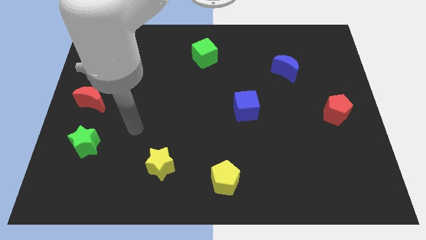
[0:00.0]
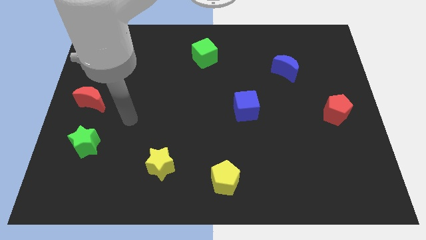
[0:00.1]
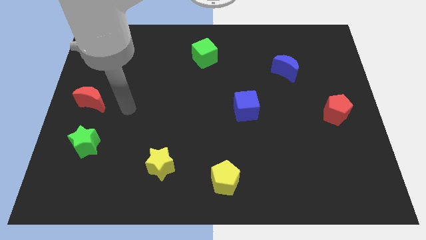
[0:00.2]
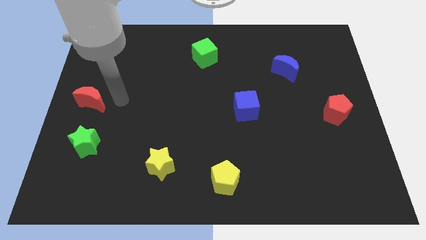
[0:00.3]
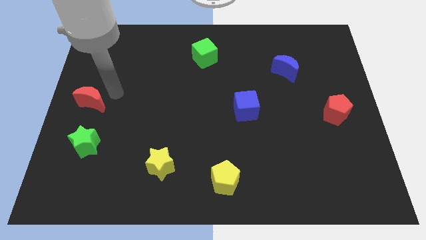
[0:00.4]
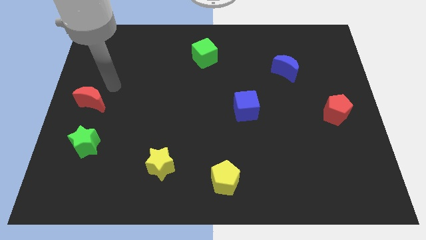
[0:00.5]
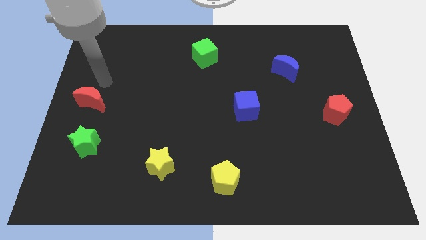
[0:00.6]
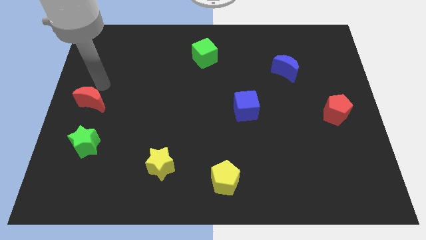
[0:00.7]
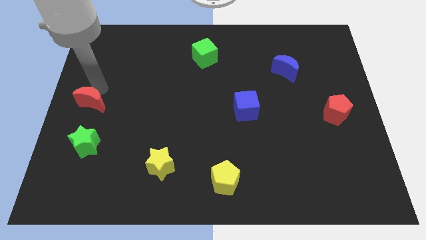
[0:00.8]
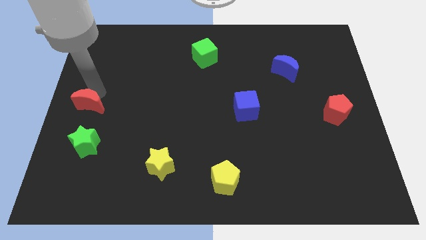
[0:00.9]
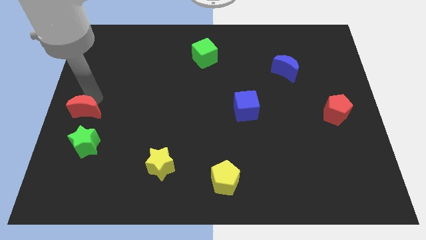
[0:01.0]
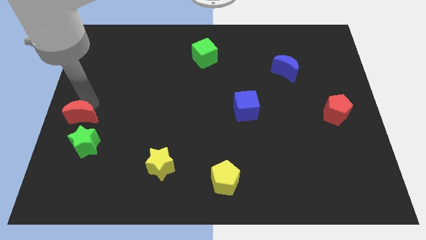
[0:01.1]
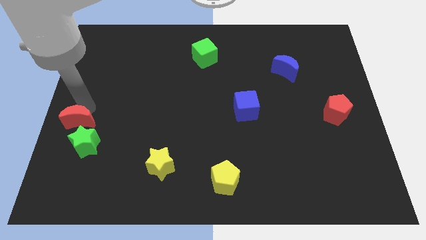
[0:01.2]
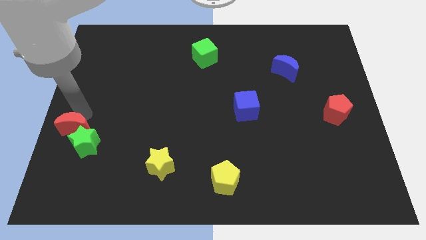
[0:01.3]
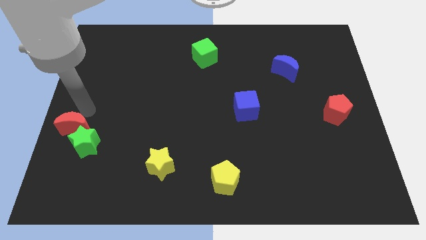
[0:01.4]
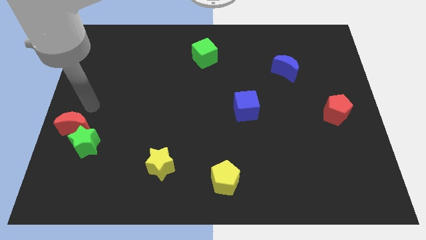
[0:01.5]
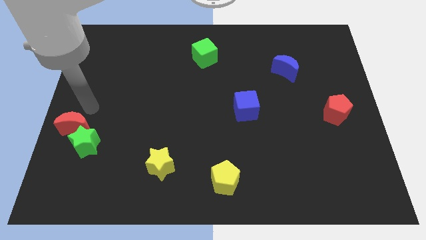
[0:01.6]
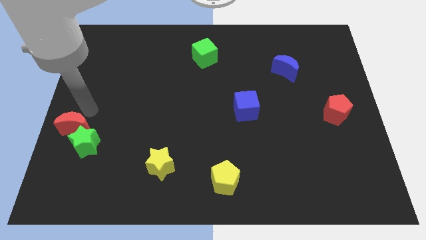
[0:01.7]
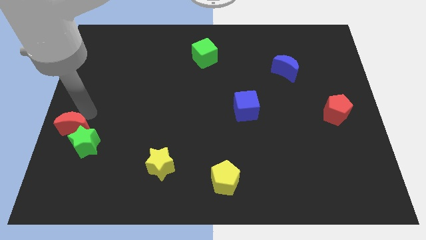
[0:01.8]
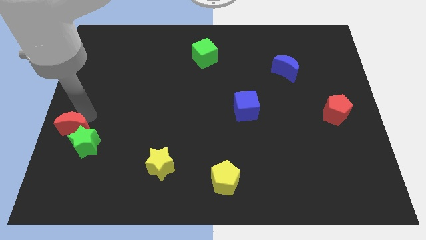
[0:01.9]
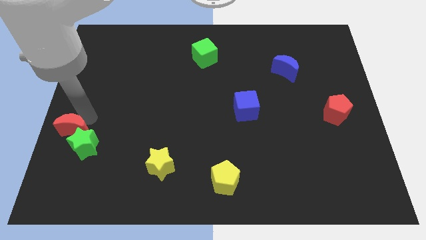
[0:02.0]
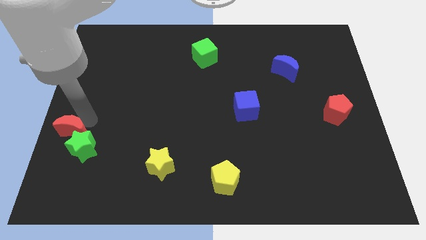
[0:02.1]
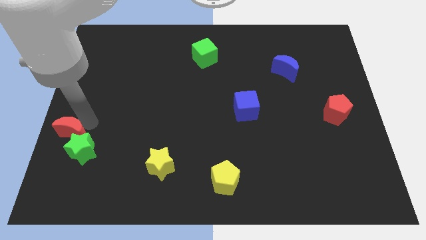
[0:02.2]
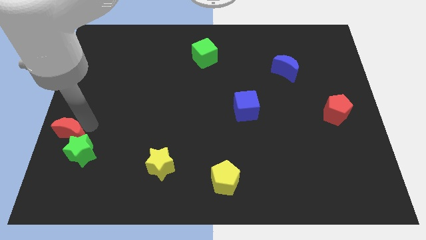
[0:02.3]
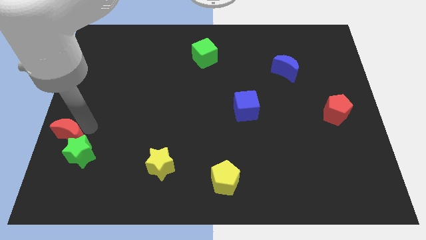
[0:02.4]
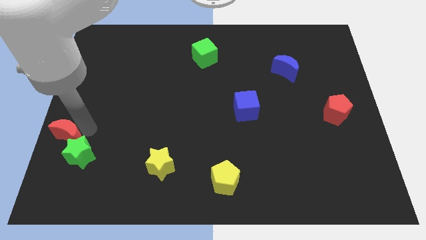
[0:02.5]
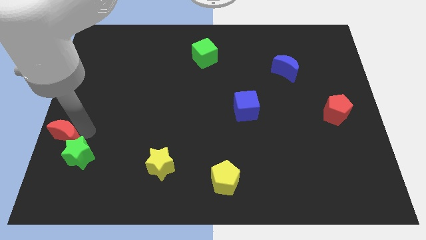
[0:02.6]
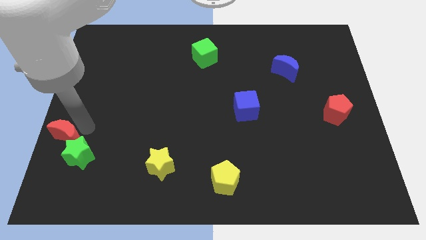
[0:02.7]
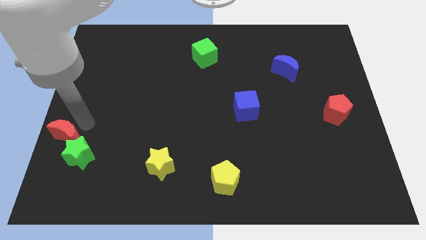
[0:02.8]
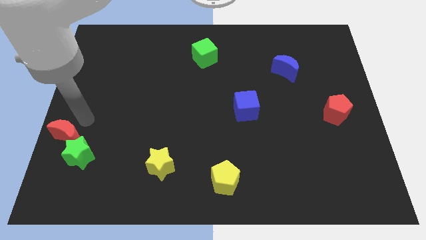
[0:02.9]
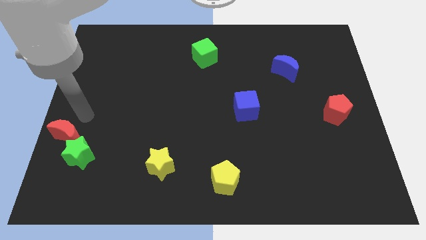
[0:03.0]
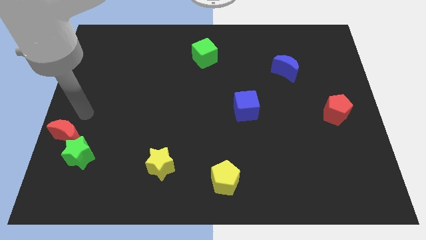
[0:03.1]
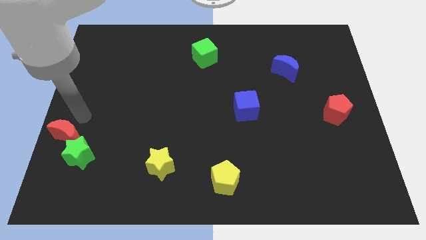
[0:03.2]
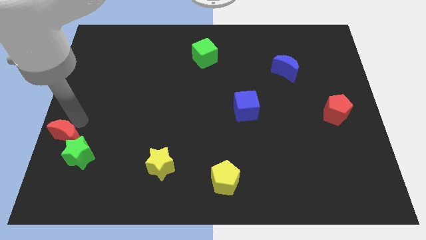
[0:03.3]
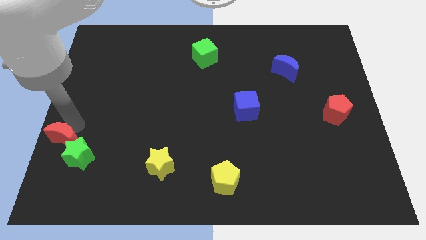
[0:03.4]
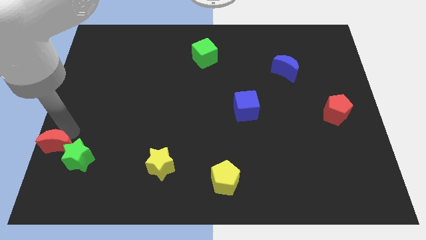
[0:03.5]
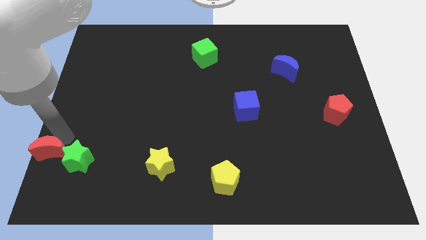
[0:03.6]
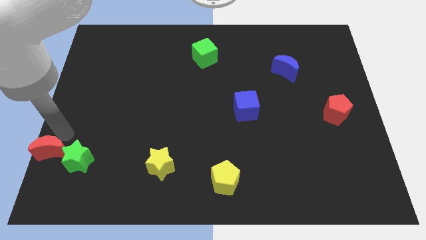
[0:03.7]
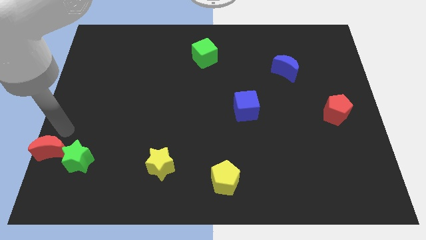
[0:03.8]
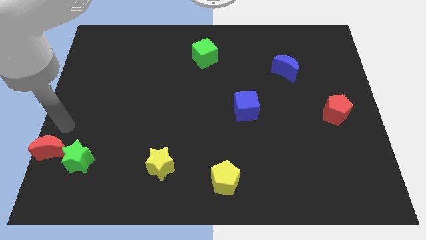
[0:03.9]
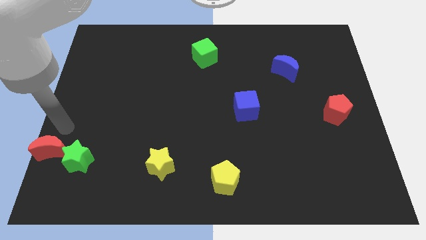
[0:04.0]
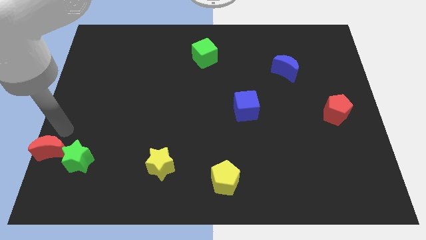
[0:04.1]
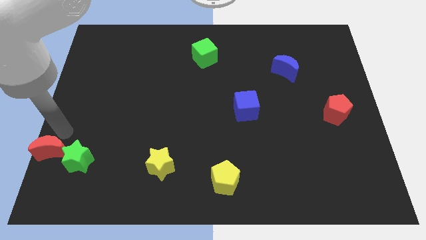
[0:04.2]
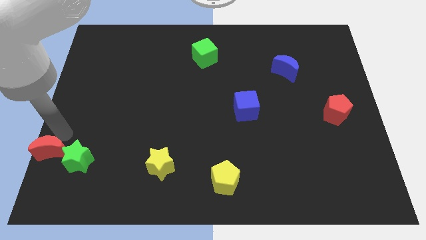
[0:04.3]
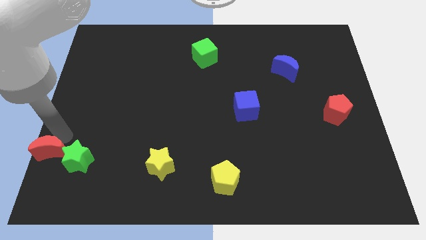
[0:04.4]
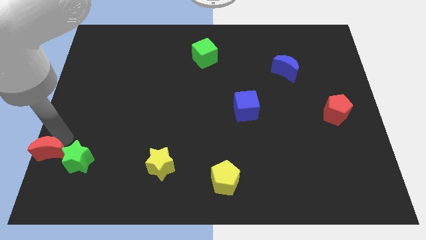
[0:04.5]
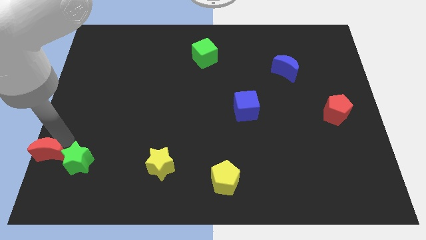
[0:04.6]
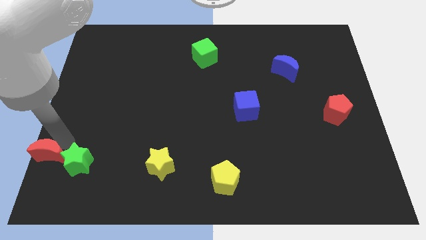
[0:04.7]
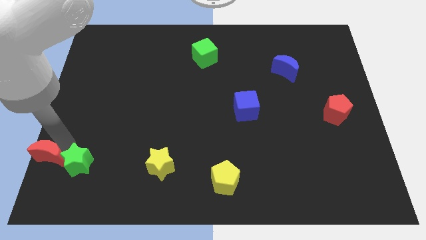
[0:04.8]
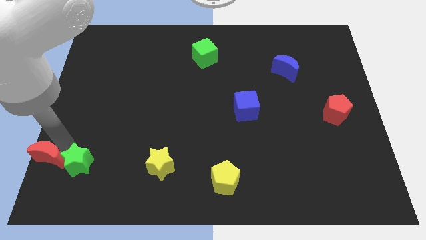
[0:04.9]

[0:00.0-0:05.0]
slide the red moon to the bottom left of the board

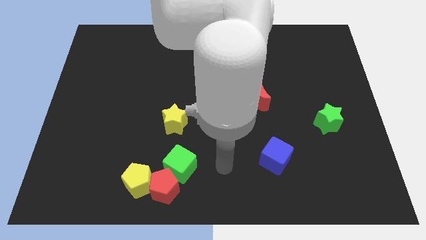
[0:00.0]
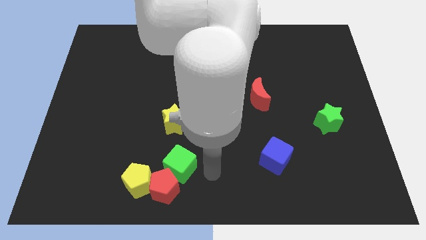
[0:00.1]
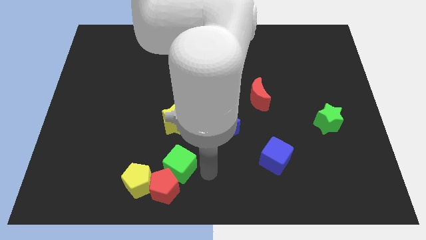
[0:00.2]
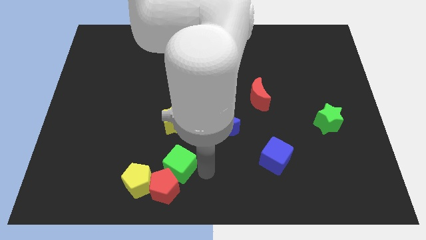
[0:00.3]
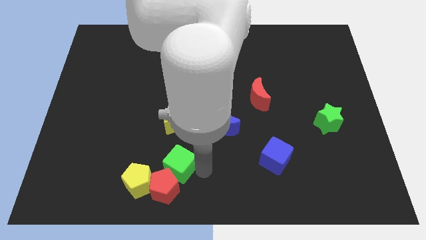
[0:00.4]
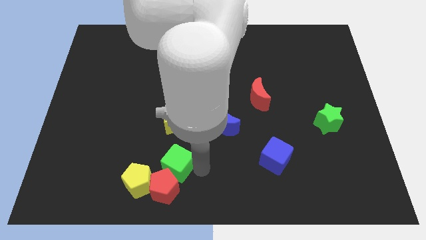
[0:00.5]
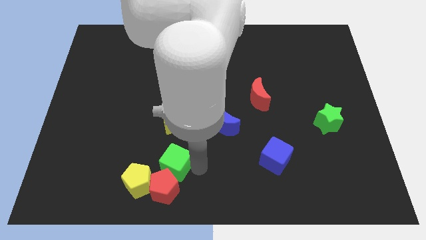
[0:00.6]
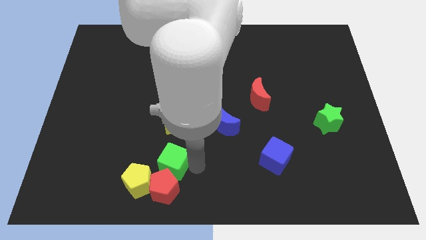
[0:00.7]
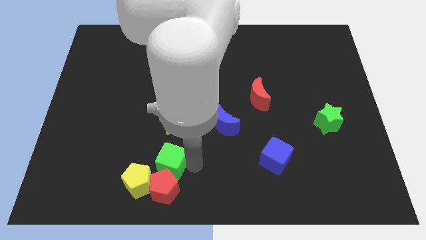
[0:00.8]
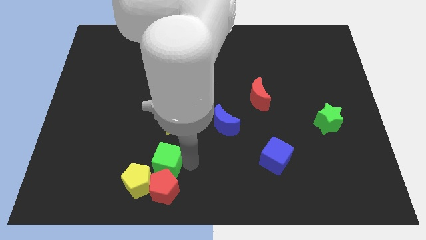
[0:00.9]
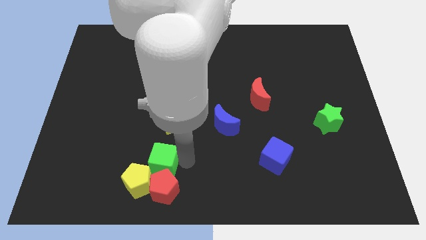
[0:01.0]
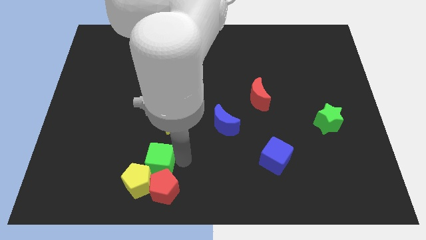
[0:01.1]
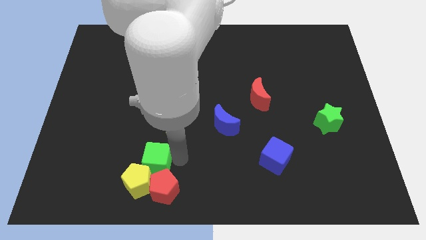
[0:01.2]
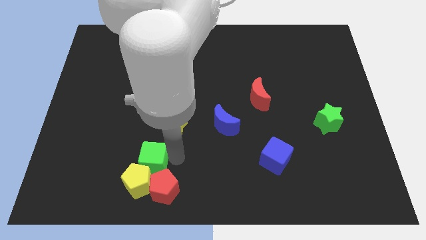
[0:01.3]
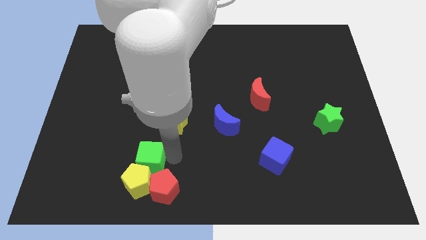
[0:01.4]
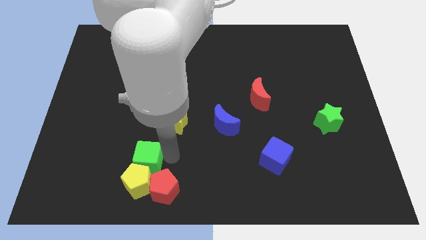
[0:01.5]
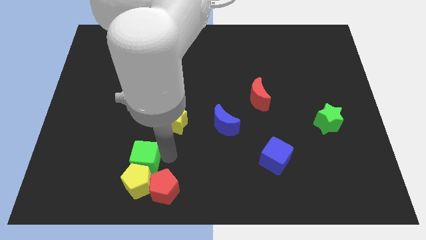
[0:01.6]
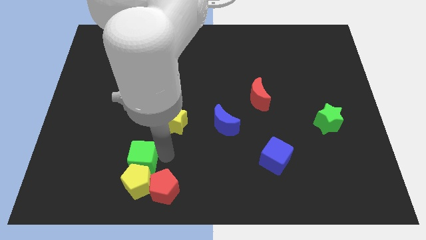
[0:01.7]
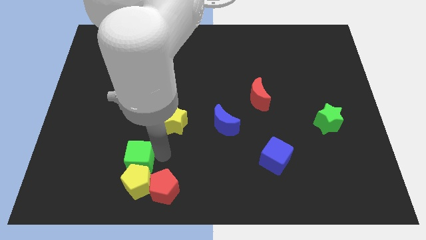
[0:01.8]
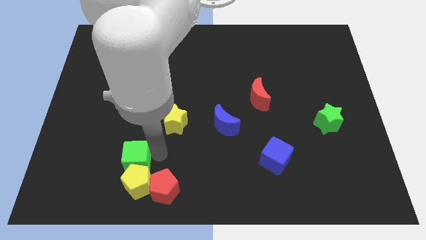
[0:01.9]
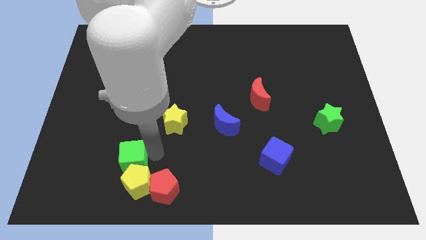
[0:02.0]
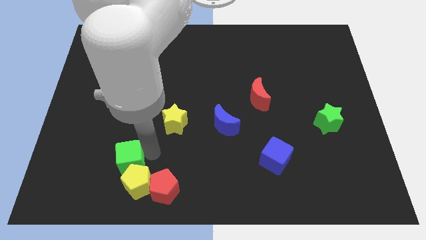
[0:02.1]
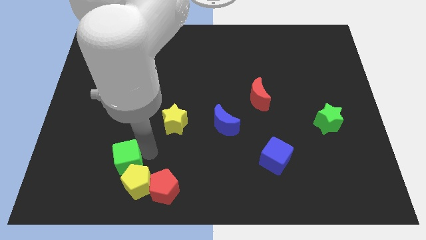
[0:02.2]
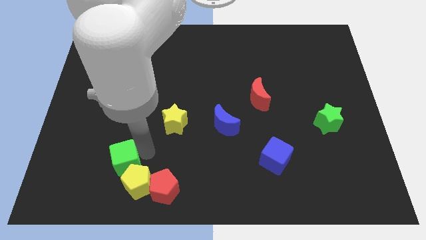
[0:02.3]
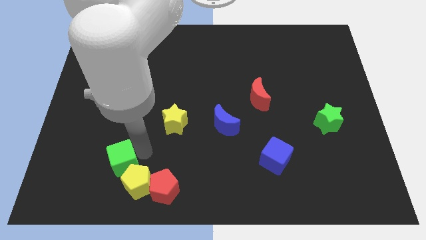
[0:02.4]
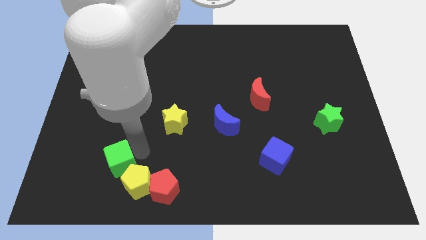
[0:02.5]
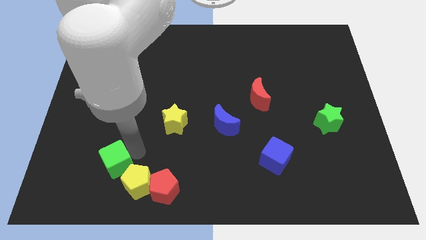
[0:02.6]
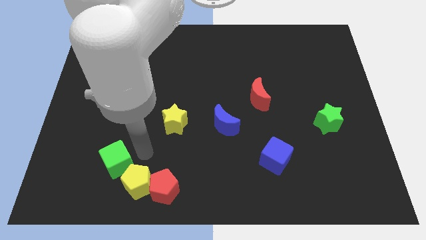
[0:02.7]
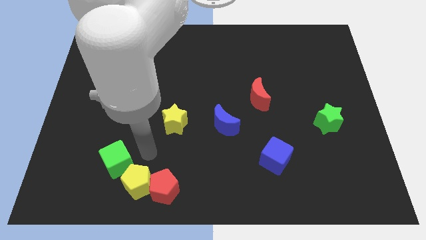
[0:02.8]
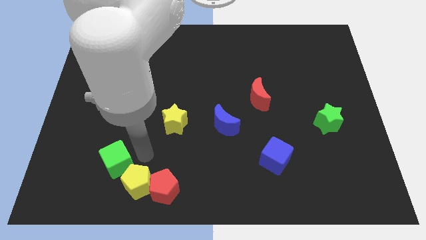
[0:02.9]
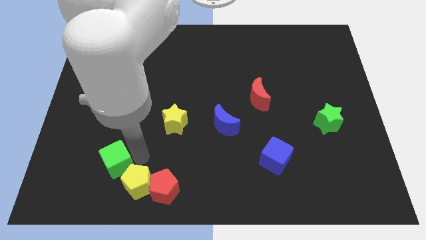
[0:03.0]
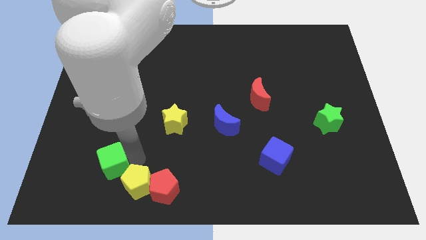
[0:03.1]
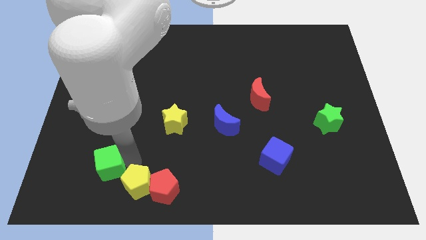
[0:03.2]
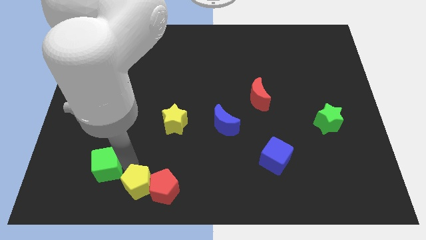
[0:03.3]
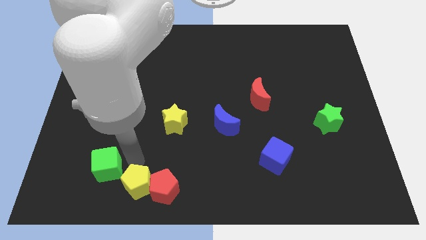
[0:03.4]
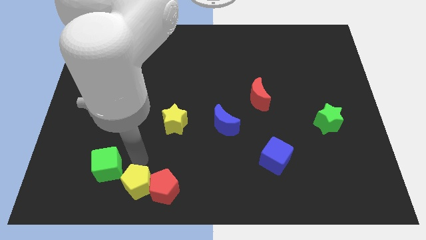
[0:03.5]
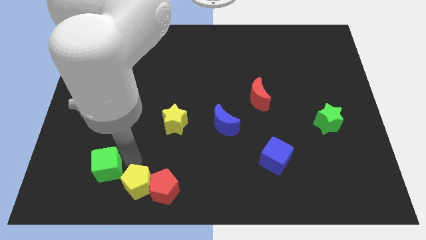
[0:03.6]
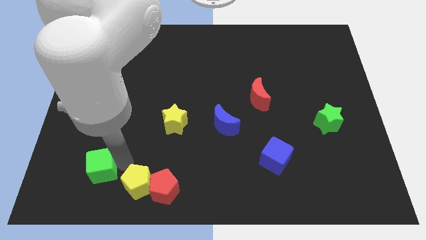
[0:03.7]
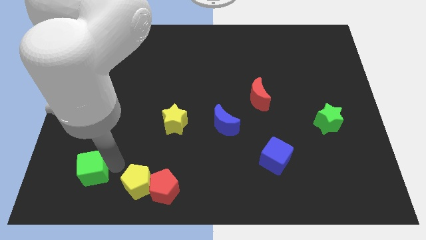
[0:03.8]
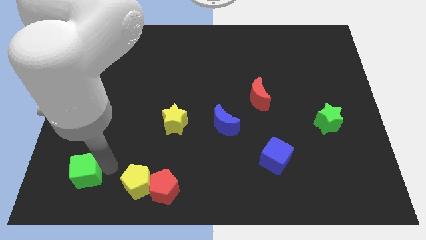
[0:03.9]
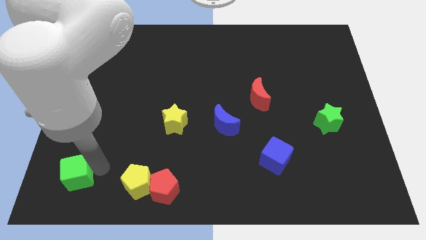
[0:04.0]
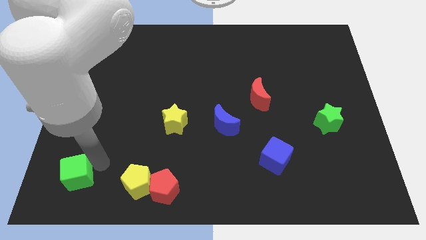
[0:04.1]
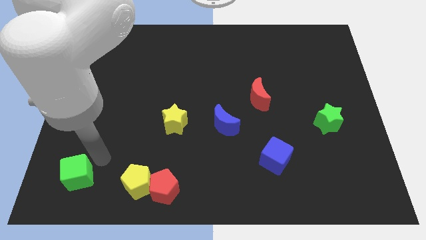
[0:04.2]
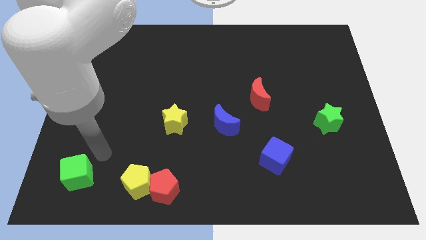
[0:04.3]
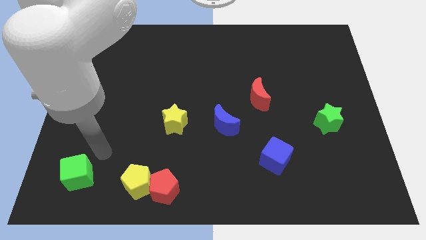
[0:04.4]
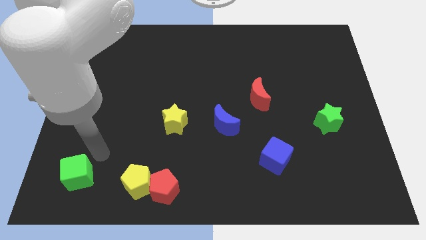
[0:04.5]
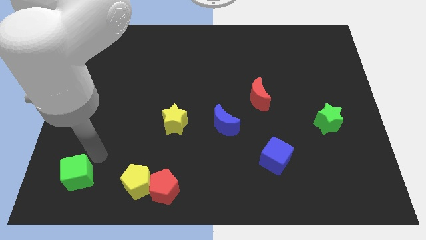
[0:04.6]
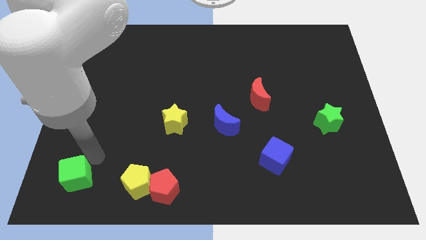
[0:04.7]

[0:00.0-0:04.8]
move the green cube to the lower left corner
